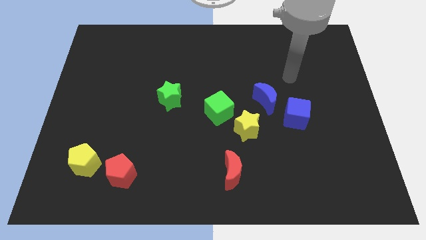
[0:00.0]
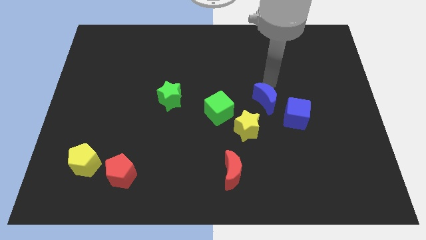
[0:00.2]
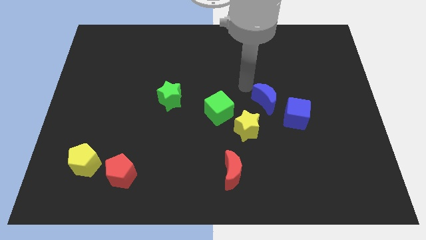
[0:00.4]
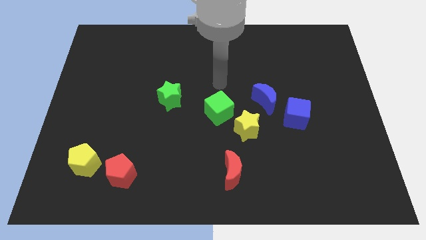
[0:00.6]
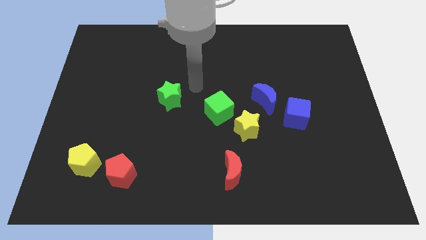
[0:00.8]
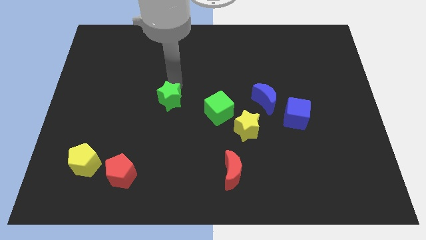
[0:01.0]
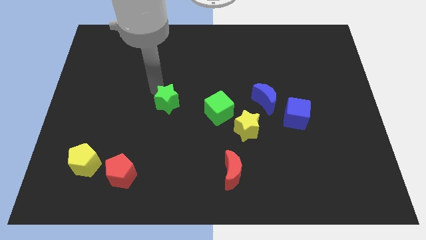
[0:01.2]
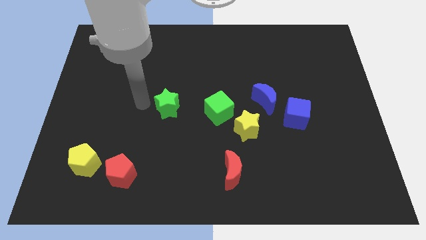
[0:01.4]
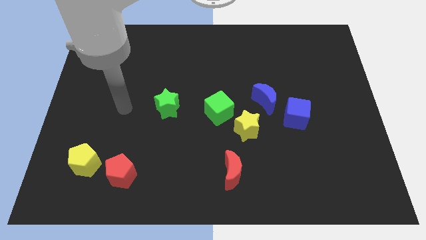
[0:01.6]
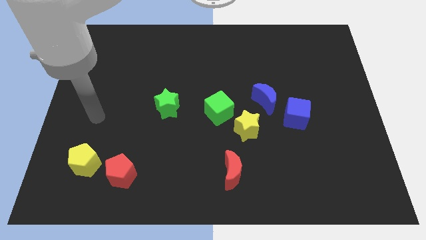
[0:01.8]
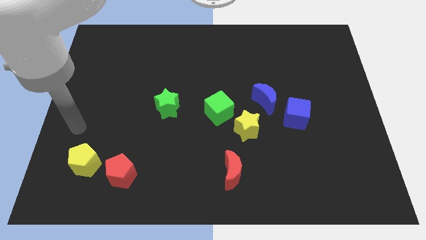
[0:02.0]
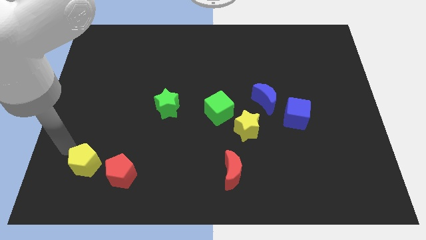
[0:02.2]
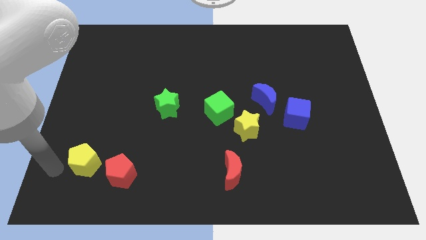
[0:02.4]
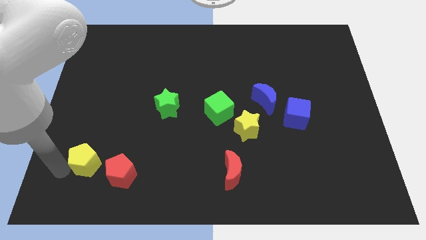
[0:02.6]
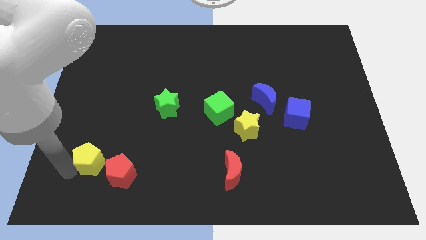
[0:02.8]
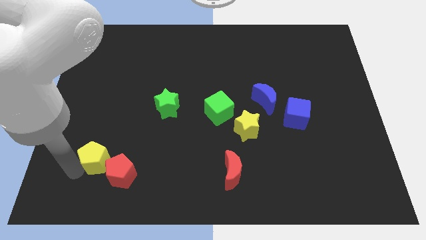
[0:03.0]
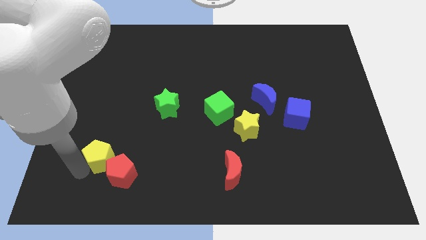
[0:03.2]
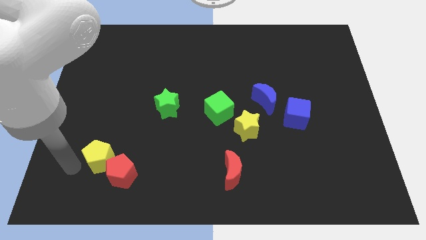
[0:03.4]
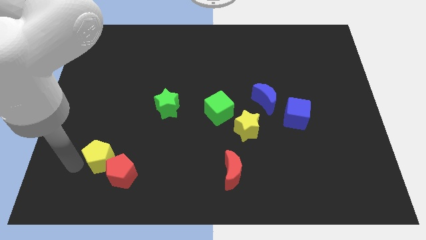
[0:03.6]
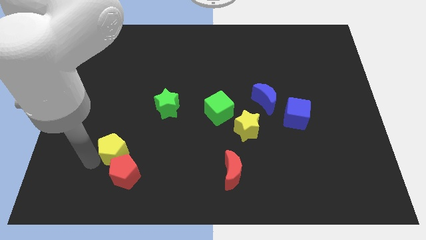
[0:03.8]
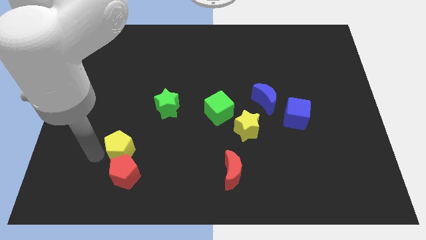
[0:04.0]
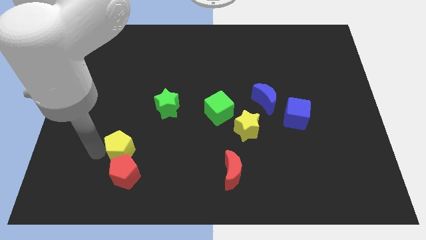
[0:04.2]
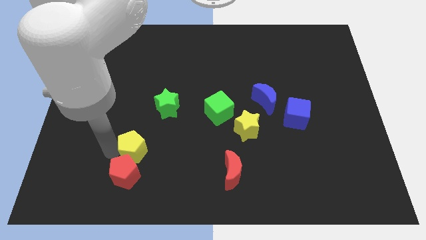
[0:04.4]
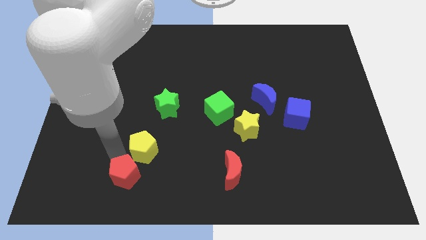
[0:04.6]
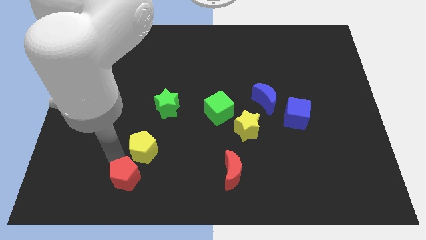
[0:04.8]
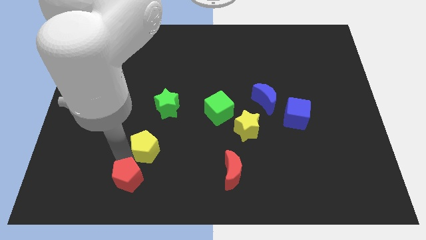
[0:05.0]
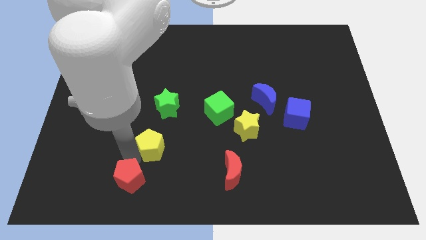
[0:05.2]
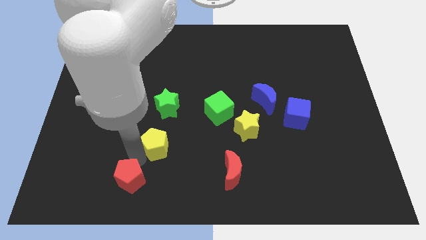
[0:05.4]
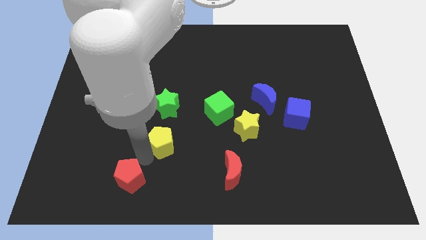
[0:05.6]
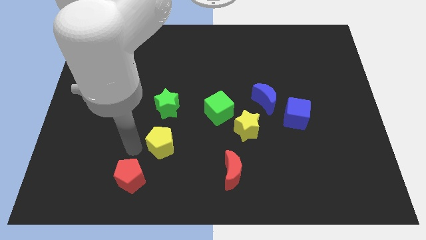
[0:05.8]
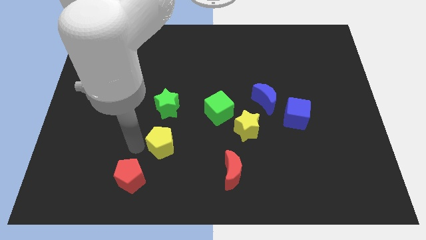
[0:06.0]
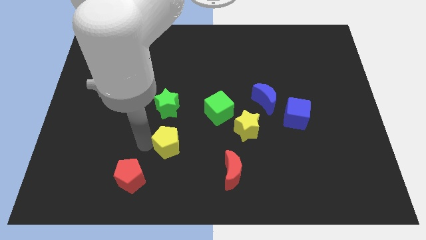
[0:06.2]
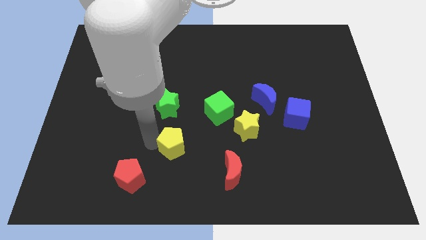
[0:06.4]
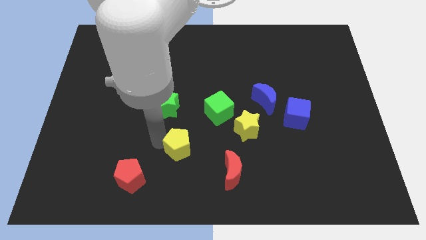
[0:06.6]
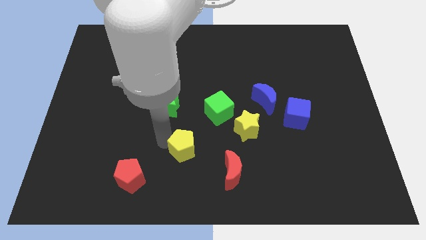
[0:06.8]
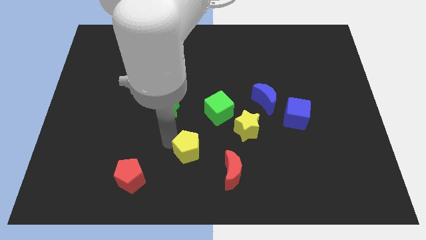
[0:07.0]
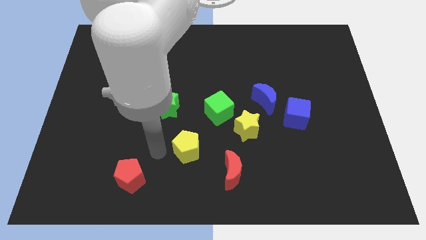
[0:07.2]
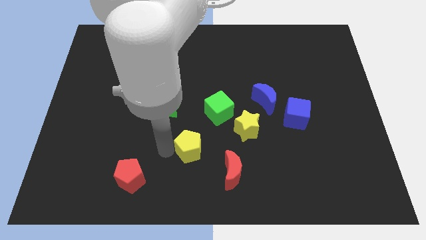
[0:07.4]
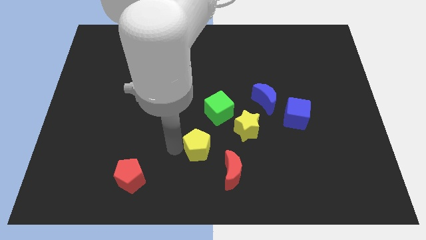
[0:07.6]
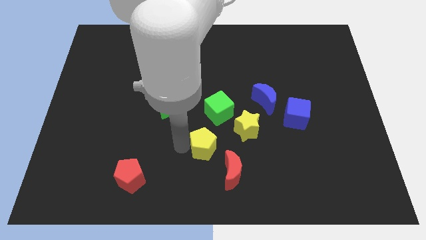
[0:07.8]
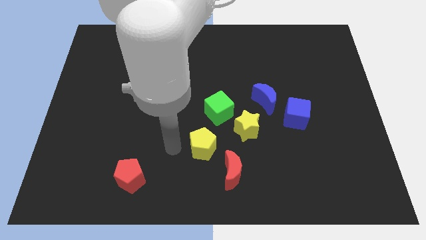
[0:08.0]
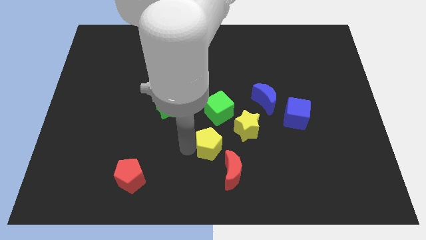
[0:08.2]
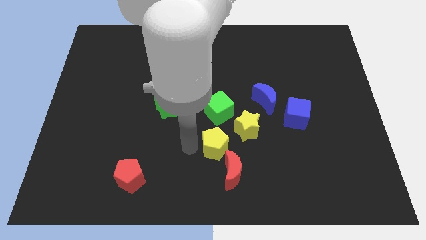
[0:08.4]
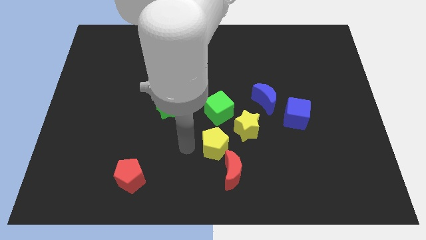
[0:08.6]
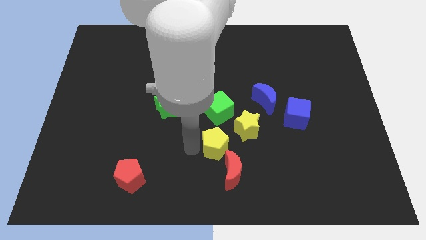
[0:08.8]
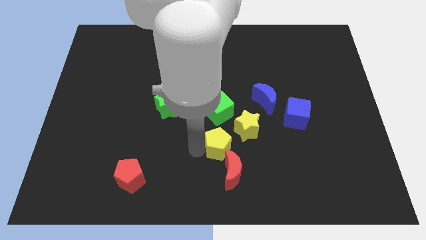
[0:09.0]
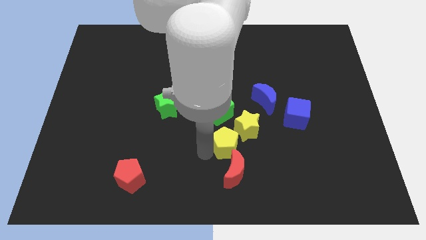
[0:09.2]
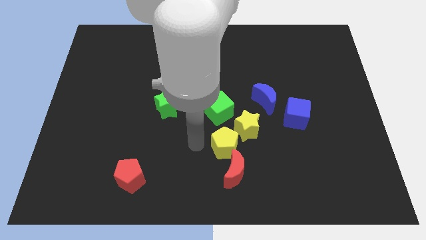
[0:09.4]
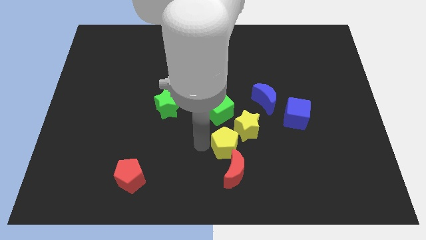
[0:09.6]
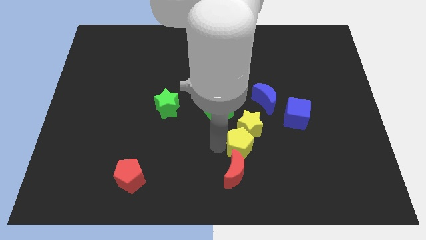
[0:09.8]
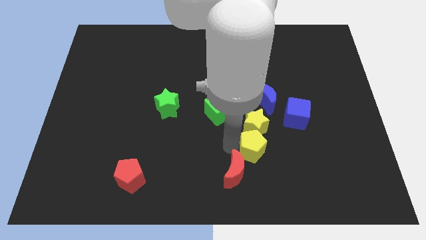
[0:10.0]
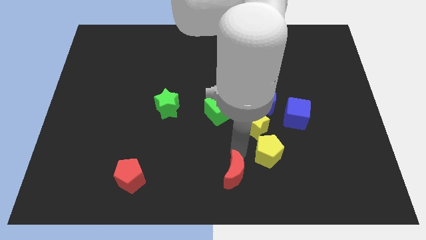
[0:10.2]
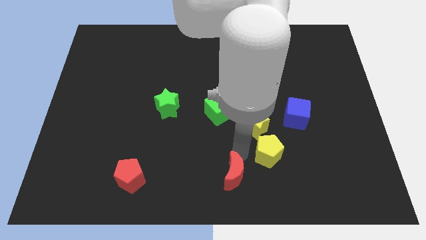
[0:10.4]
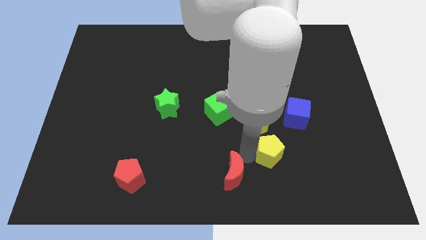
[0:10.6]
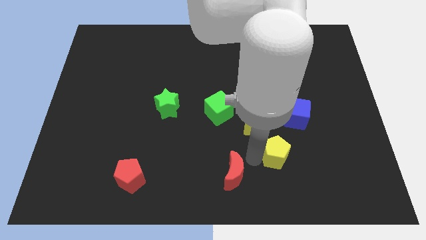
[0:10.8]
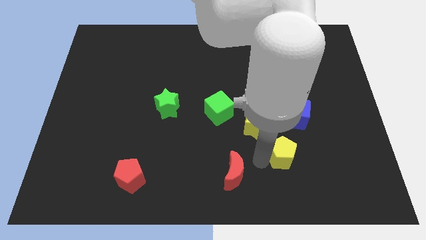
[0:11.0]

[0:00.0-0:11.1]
slide the yellow pentagon below the blue cube

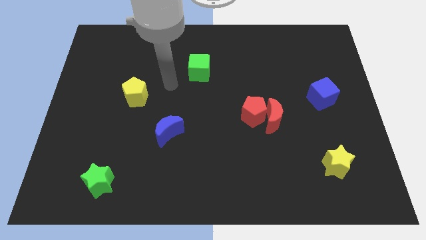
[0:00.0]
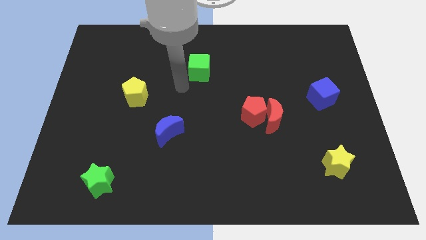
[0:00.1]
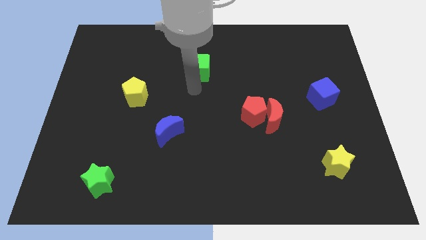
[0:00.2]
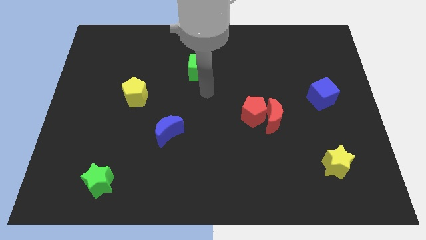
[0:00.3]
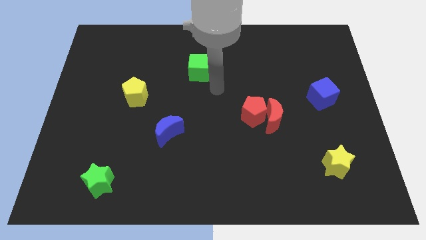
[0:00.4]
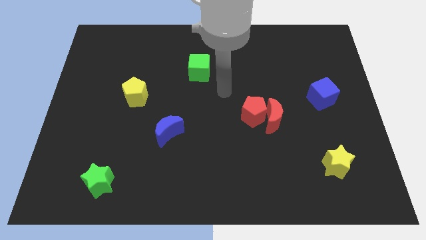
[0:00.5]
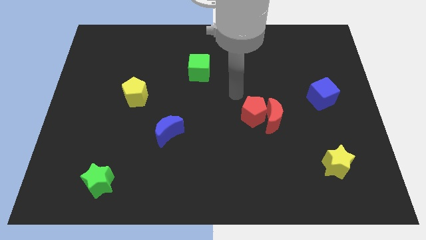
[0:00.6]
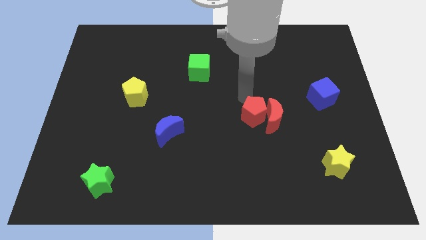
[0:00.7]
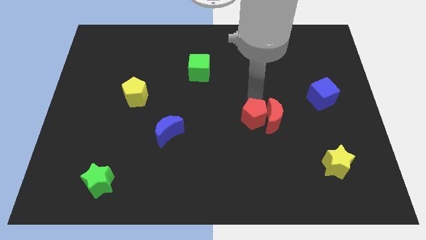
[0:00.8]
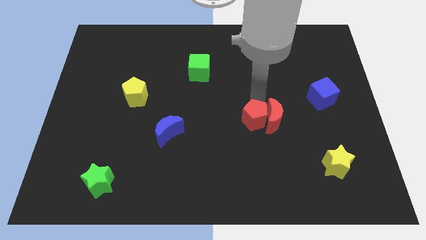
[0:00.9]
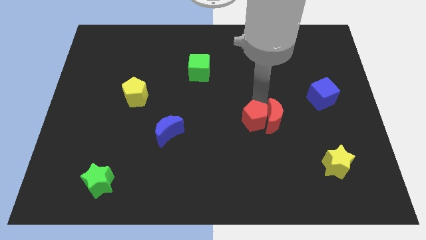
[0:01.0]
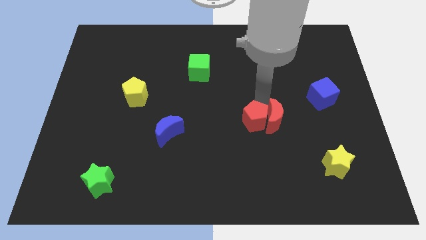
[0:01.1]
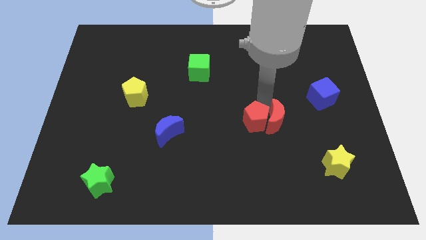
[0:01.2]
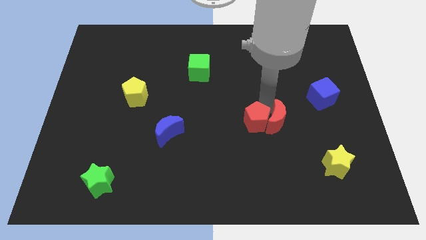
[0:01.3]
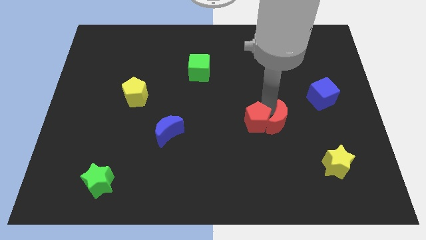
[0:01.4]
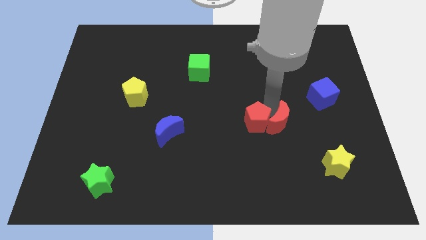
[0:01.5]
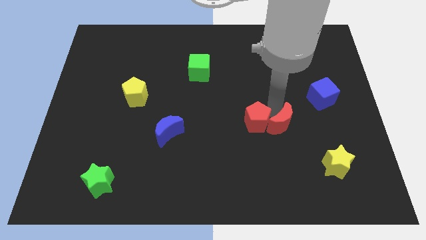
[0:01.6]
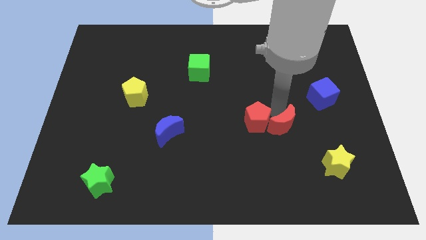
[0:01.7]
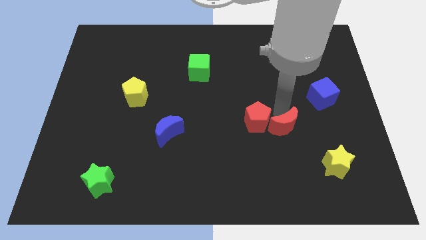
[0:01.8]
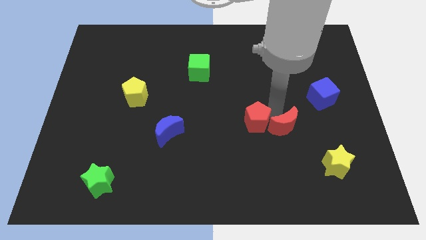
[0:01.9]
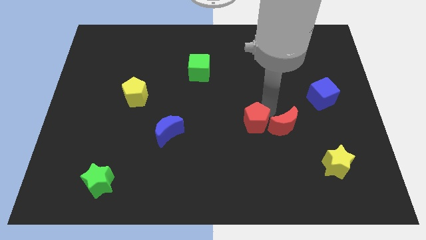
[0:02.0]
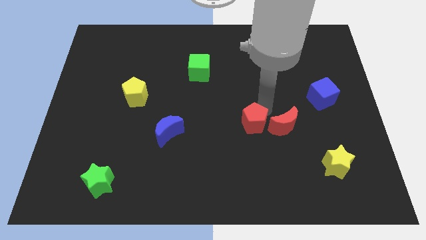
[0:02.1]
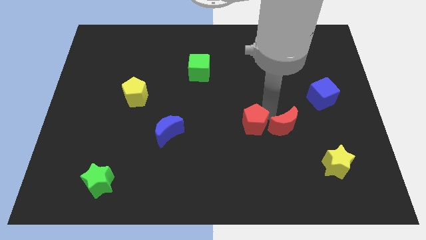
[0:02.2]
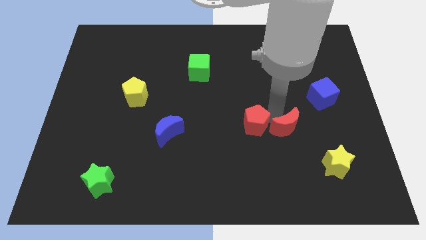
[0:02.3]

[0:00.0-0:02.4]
move the red moon to the top left of the yellow star
